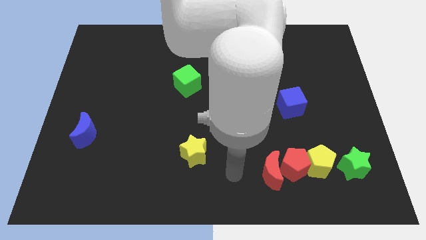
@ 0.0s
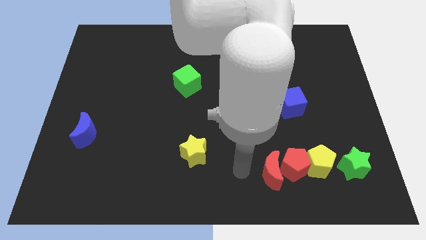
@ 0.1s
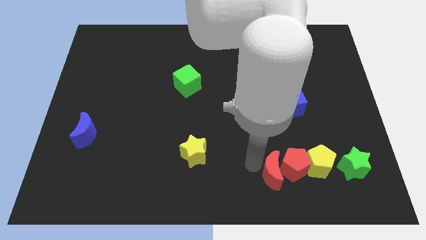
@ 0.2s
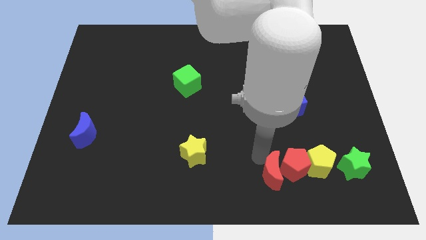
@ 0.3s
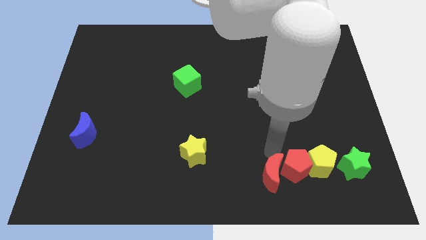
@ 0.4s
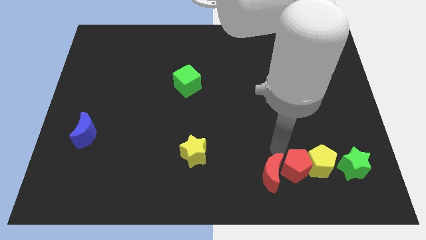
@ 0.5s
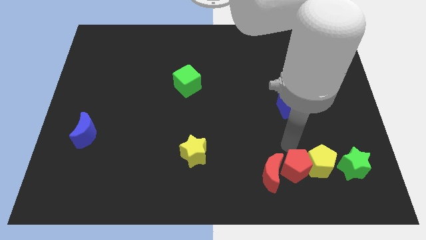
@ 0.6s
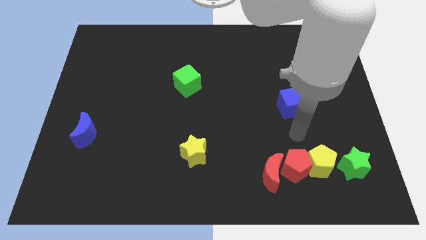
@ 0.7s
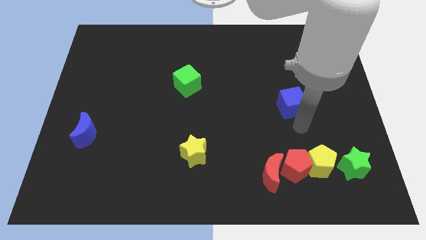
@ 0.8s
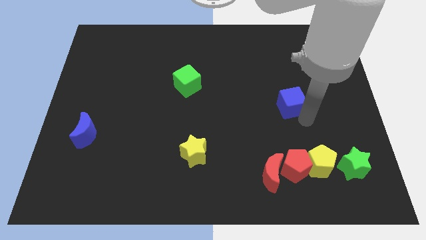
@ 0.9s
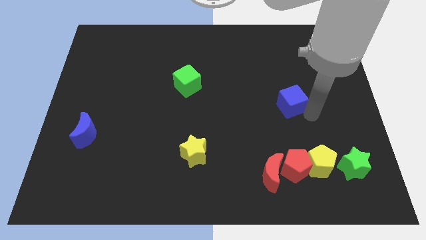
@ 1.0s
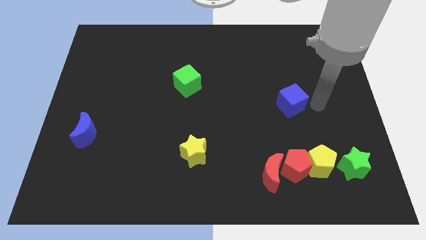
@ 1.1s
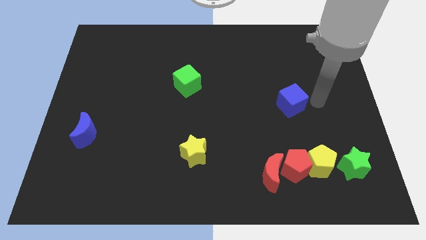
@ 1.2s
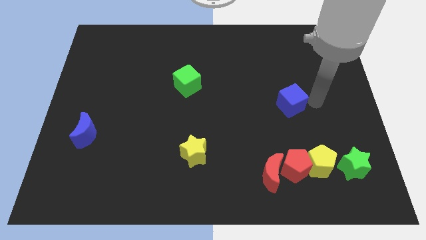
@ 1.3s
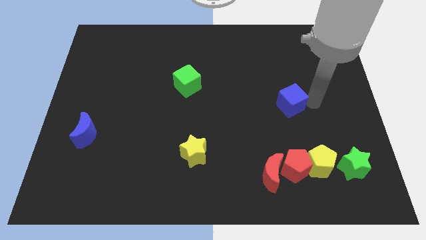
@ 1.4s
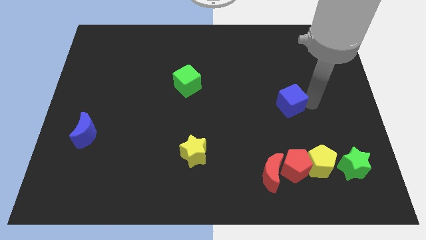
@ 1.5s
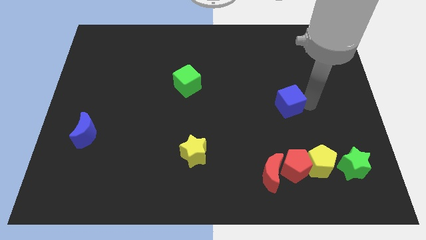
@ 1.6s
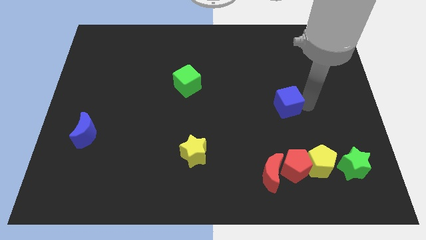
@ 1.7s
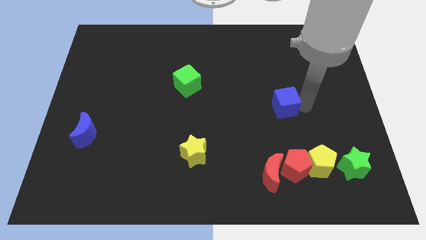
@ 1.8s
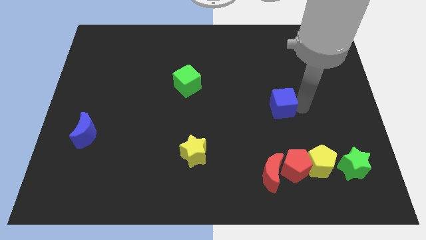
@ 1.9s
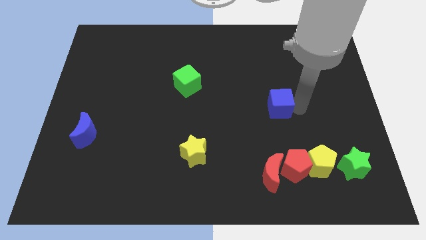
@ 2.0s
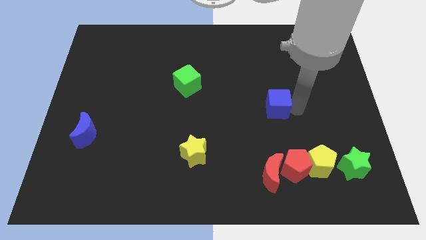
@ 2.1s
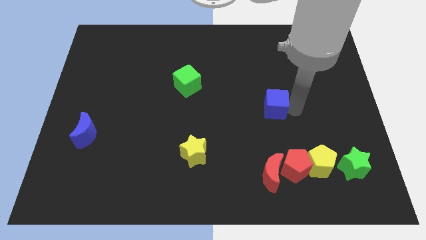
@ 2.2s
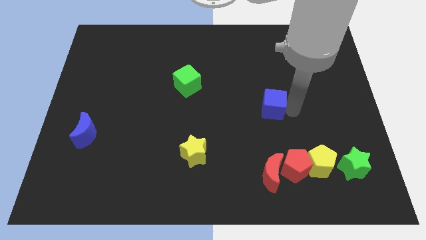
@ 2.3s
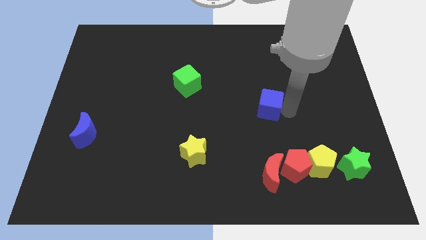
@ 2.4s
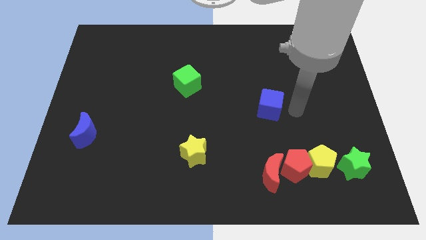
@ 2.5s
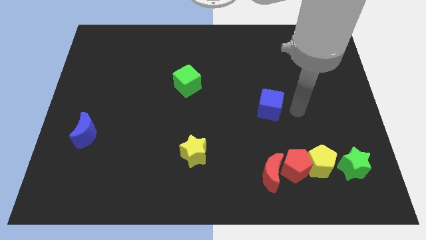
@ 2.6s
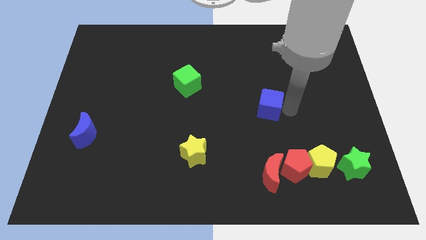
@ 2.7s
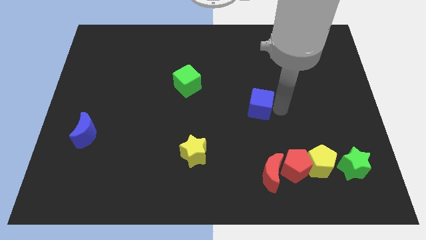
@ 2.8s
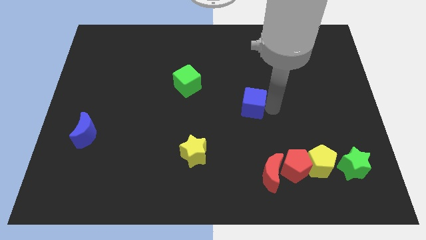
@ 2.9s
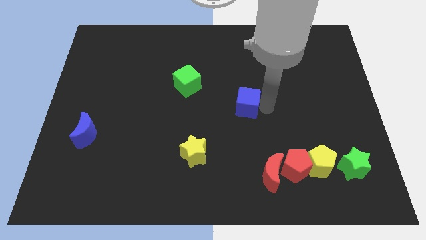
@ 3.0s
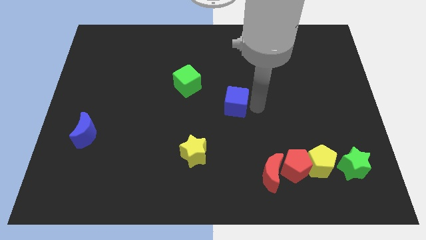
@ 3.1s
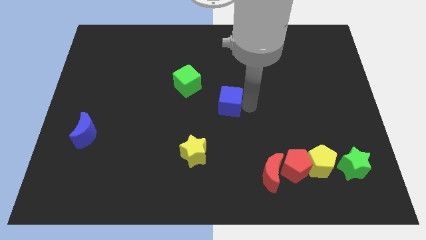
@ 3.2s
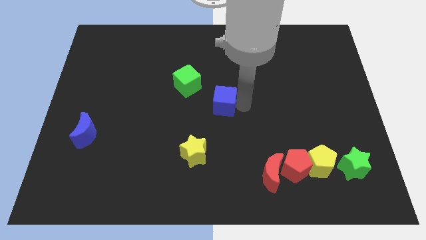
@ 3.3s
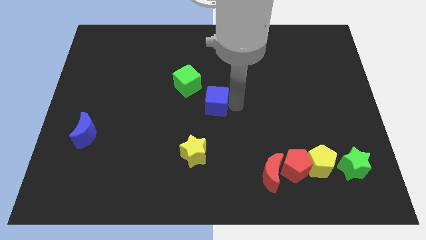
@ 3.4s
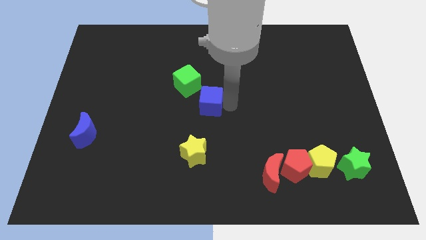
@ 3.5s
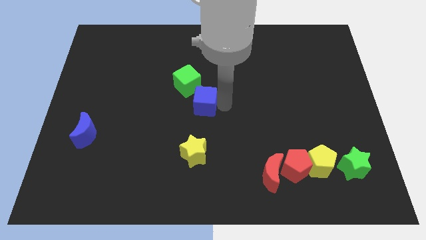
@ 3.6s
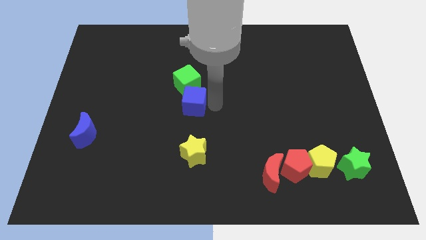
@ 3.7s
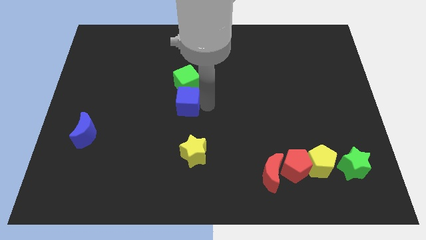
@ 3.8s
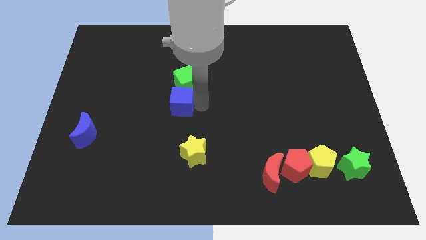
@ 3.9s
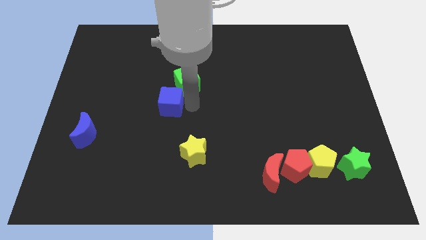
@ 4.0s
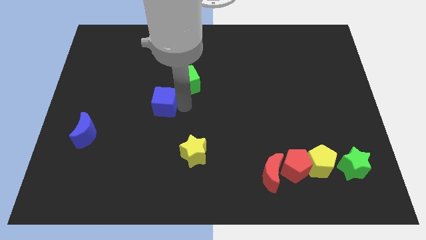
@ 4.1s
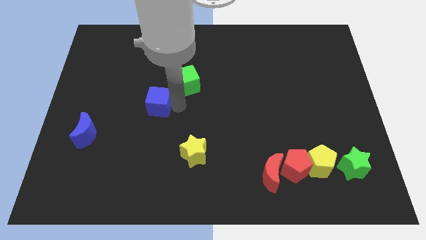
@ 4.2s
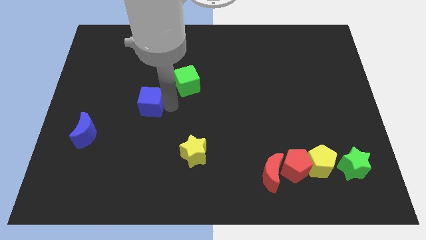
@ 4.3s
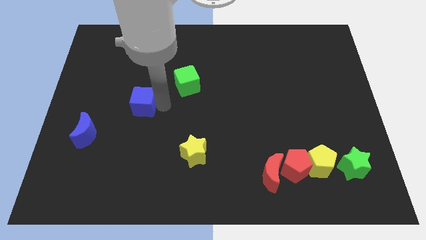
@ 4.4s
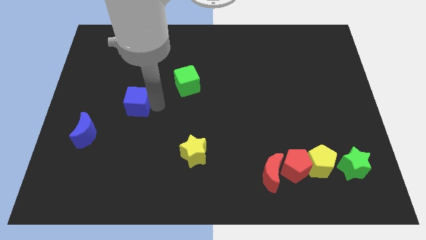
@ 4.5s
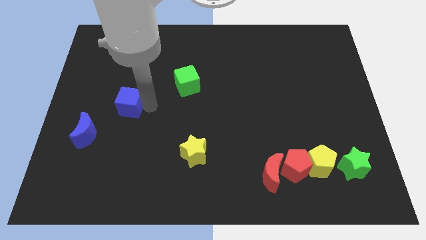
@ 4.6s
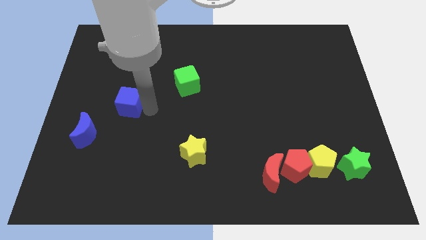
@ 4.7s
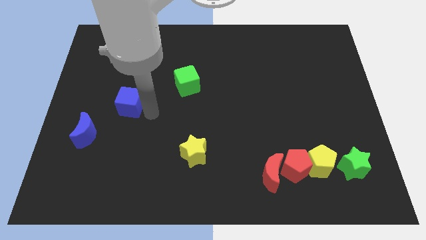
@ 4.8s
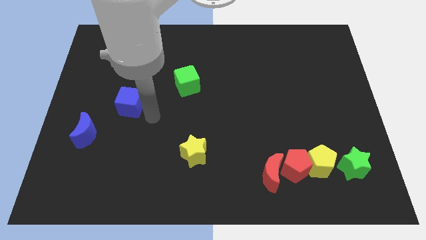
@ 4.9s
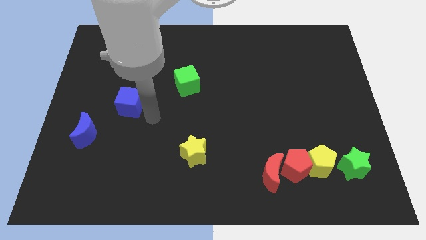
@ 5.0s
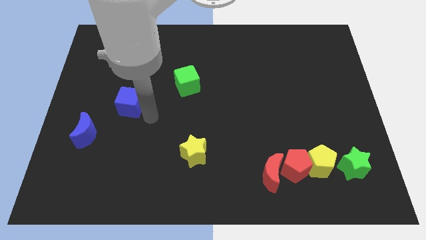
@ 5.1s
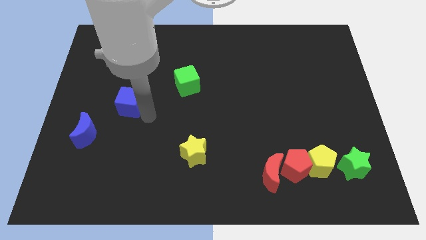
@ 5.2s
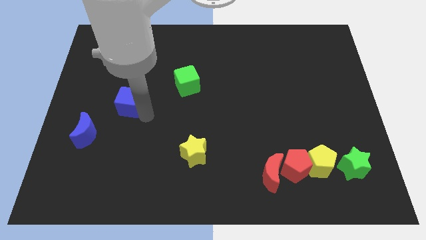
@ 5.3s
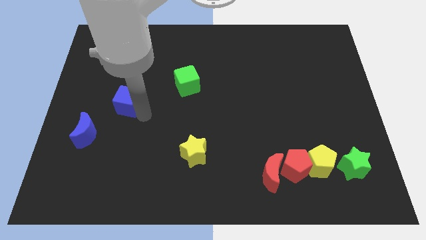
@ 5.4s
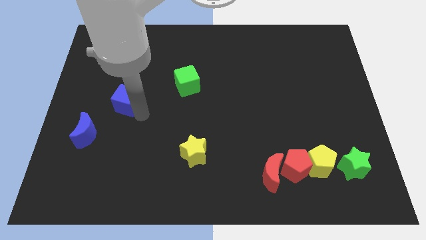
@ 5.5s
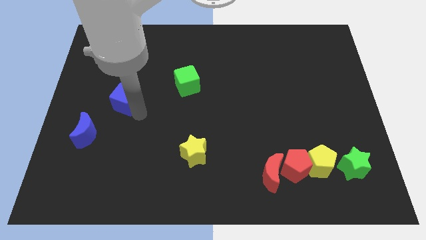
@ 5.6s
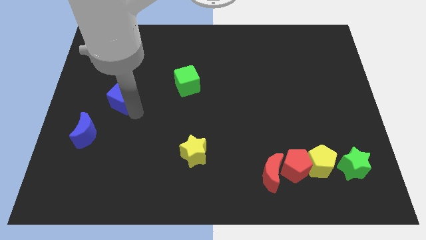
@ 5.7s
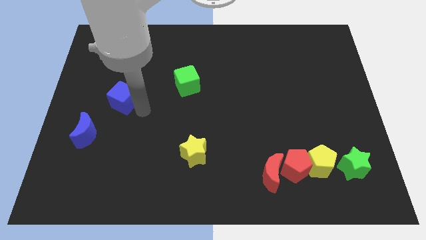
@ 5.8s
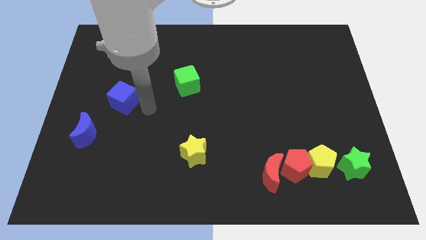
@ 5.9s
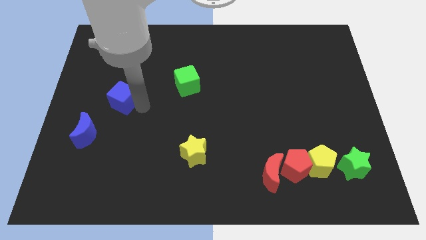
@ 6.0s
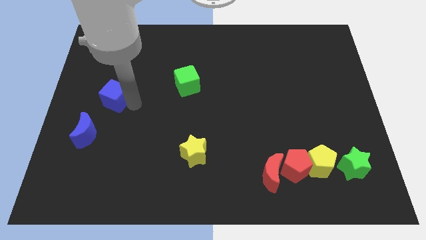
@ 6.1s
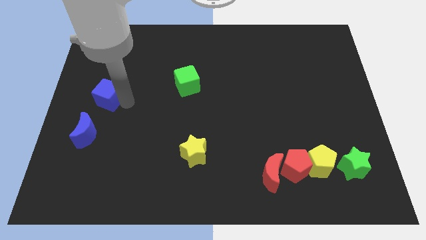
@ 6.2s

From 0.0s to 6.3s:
put the blue cube to the left side
